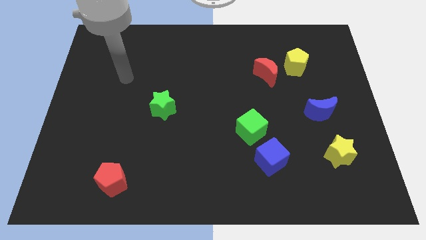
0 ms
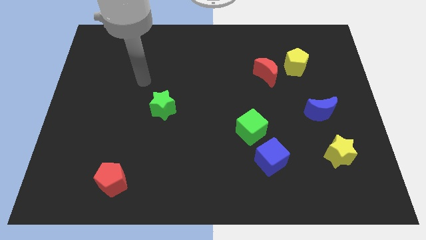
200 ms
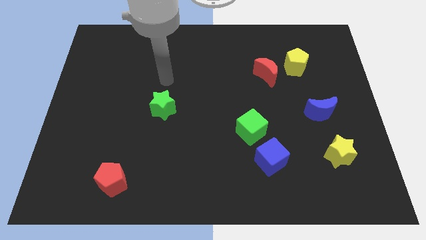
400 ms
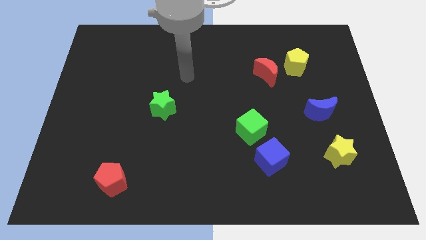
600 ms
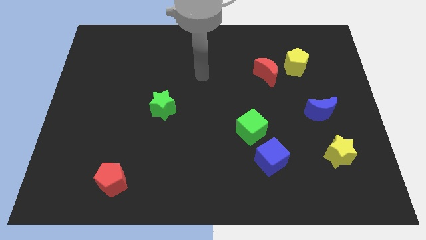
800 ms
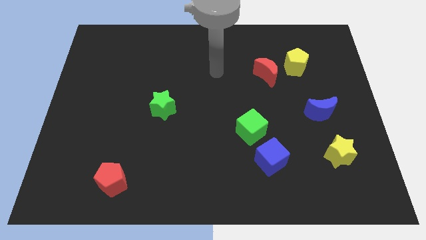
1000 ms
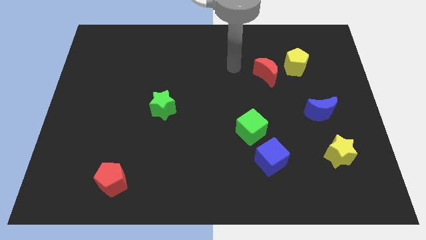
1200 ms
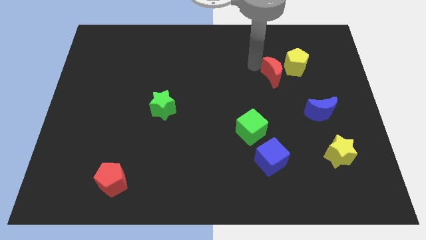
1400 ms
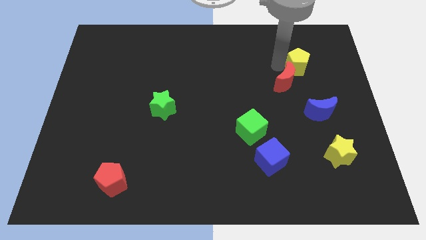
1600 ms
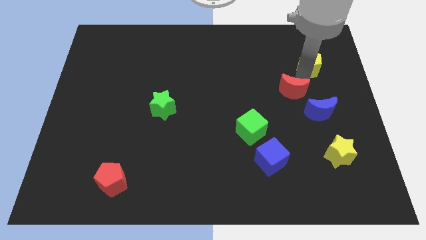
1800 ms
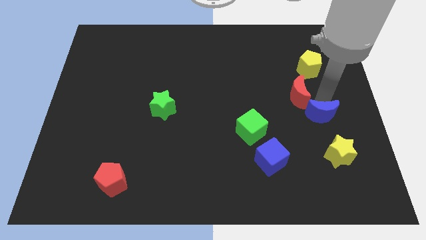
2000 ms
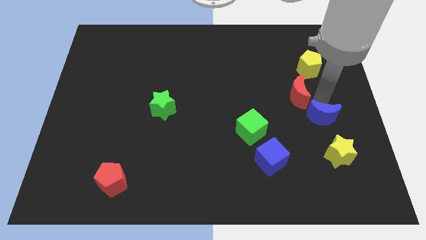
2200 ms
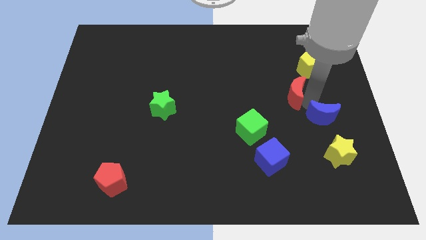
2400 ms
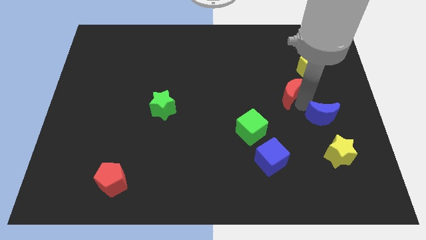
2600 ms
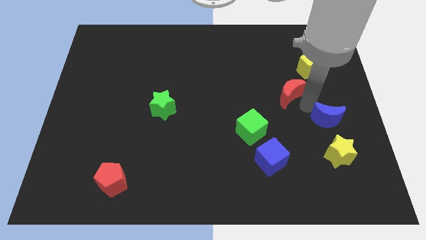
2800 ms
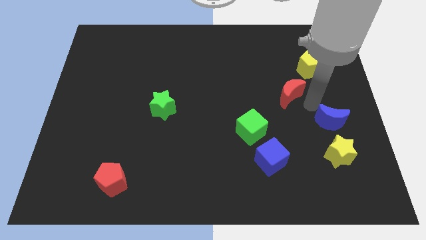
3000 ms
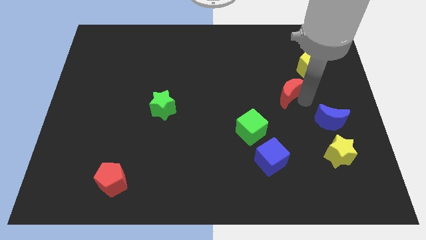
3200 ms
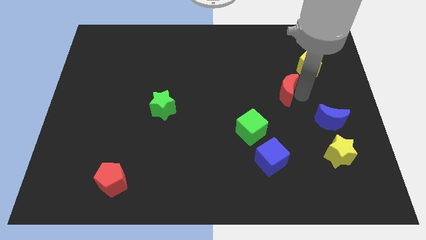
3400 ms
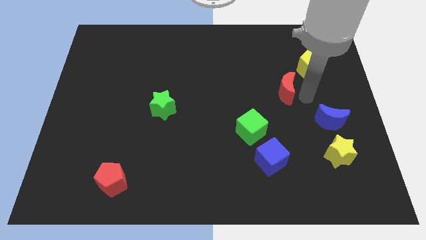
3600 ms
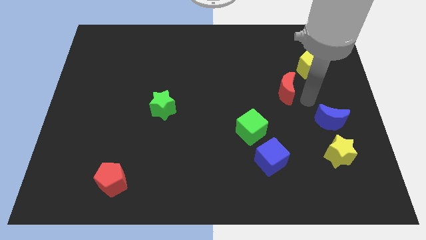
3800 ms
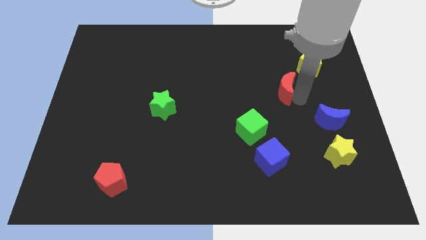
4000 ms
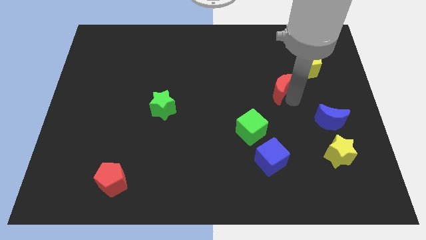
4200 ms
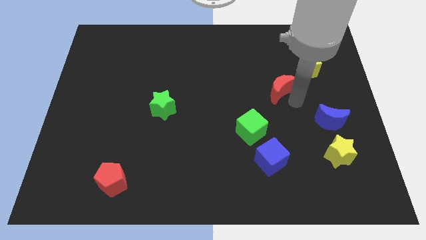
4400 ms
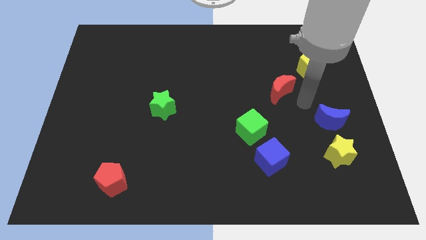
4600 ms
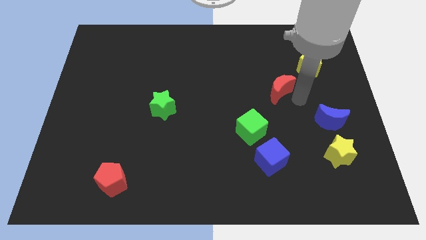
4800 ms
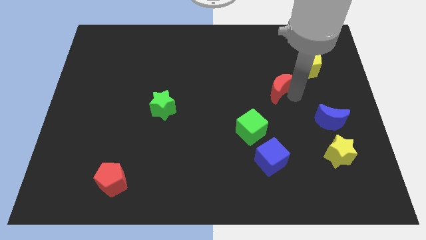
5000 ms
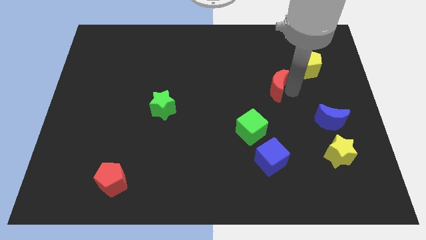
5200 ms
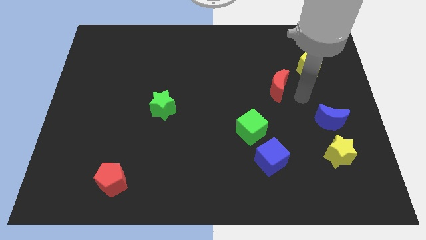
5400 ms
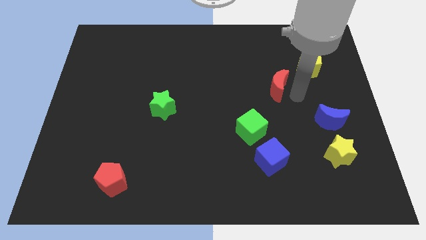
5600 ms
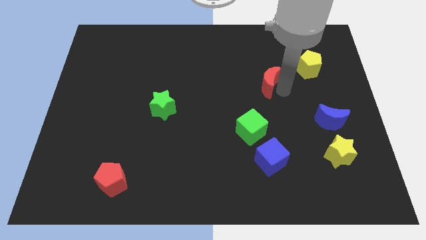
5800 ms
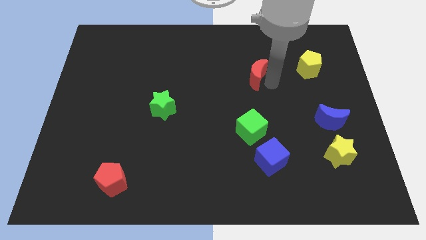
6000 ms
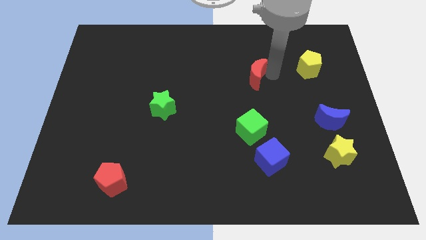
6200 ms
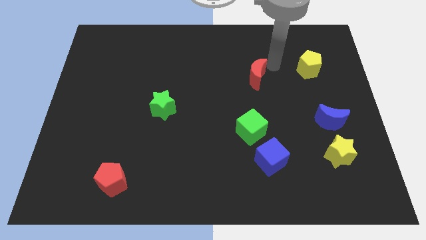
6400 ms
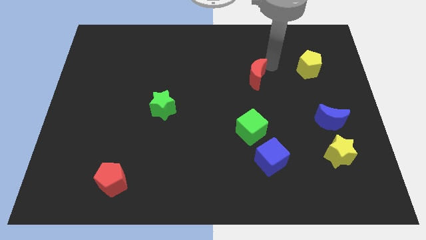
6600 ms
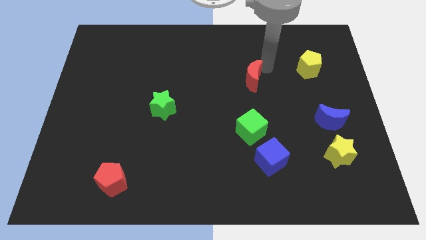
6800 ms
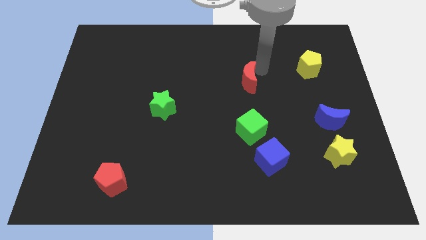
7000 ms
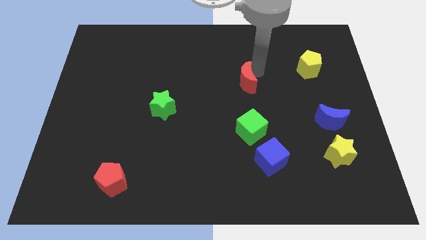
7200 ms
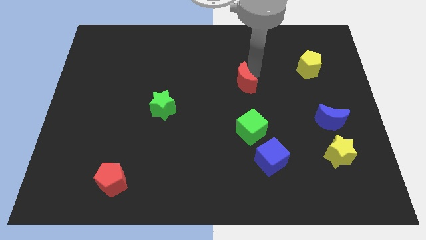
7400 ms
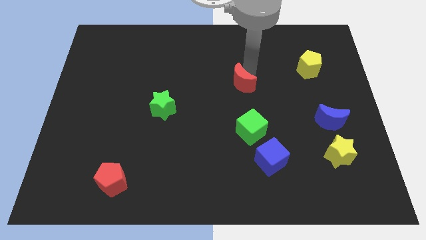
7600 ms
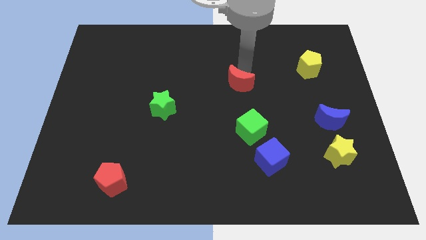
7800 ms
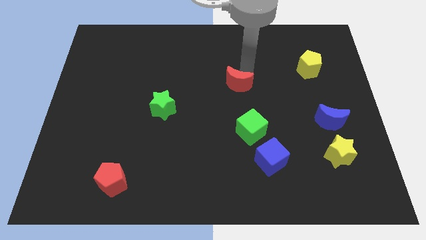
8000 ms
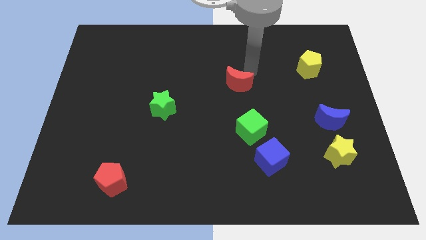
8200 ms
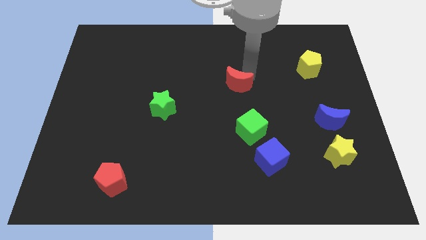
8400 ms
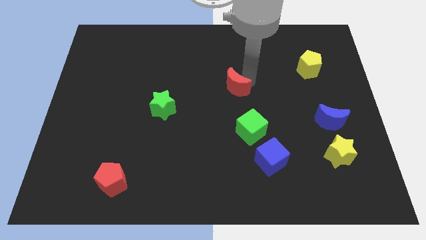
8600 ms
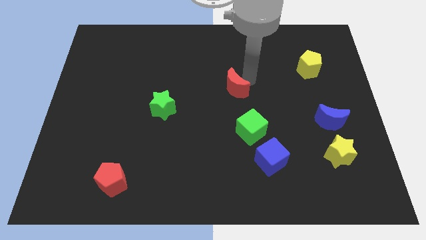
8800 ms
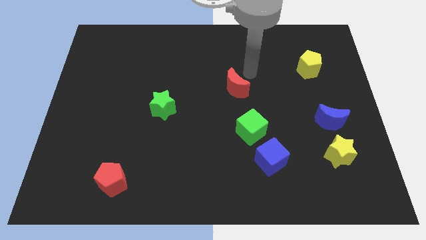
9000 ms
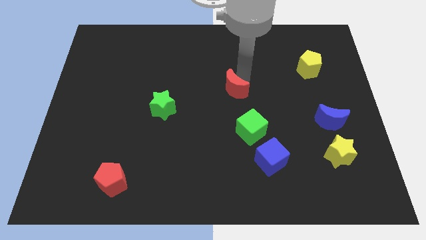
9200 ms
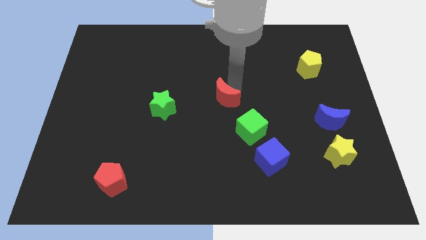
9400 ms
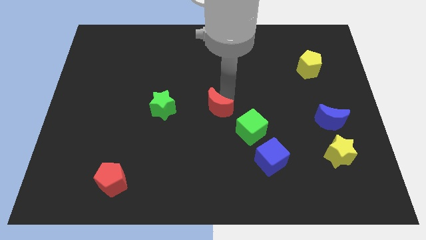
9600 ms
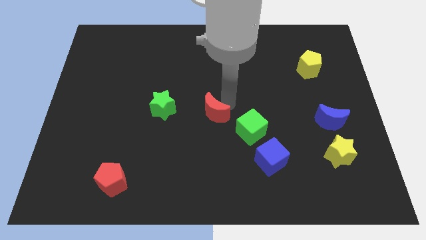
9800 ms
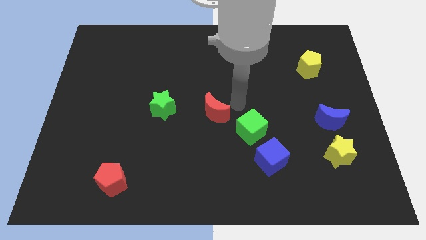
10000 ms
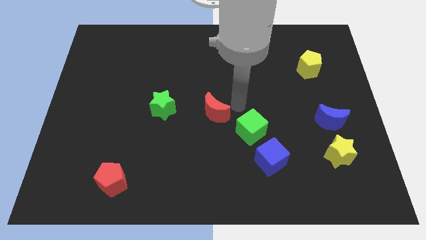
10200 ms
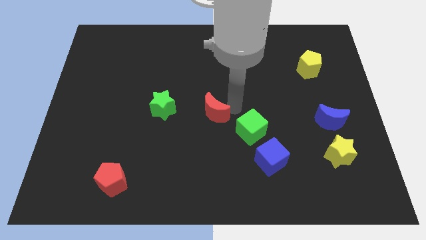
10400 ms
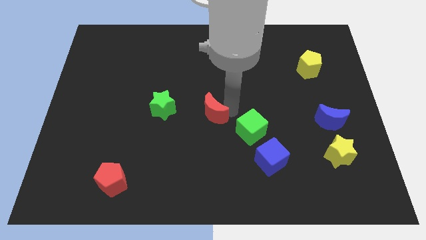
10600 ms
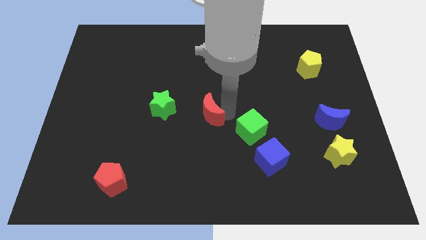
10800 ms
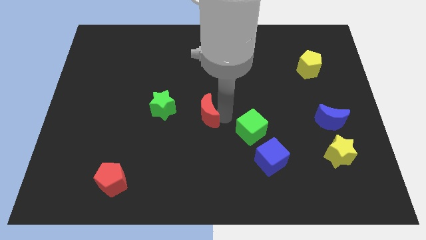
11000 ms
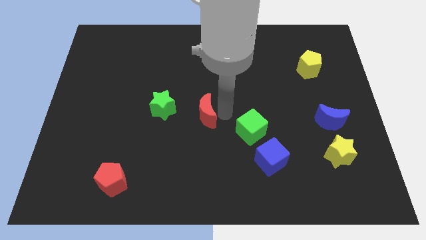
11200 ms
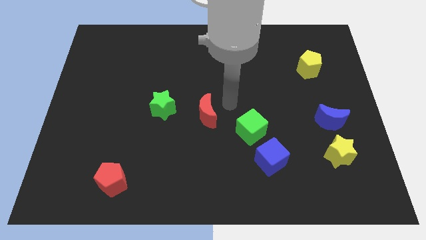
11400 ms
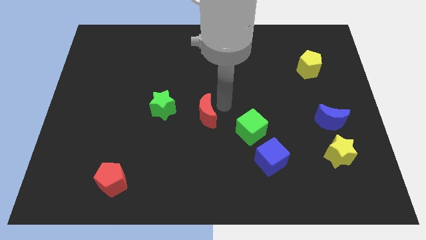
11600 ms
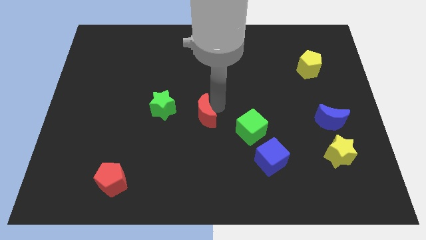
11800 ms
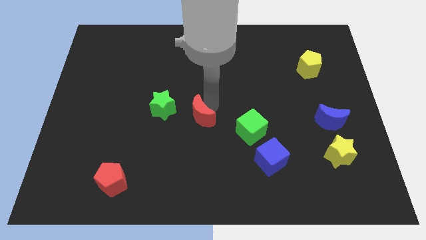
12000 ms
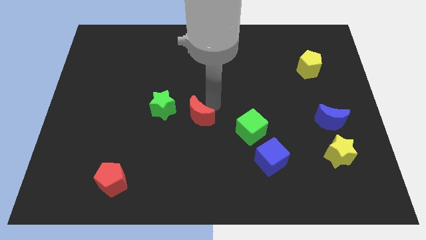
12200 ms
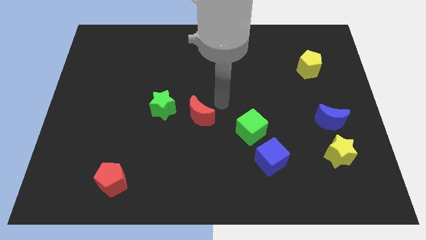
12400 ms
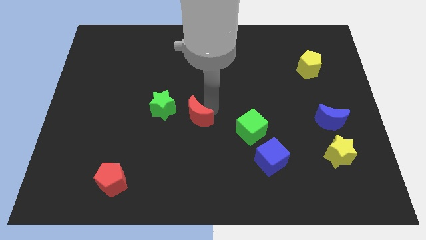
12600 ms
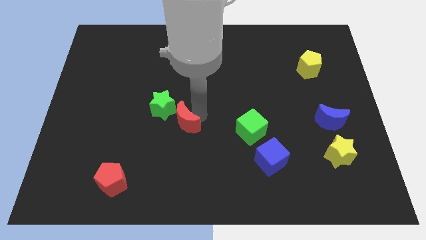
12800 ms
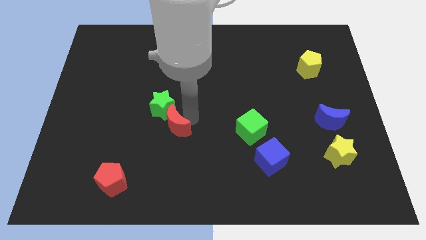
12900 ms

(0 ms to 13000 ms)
put the red moon to the bottom of the green star
